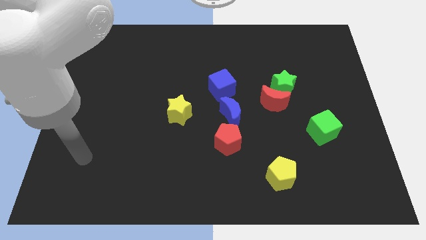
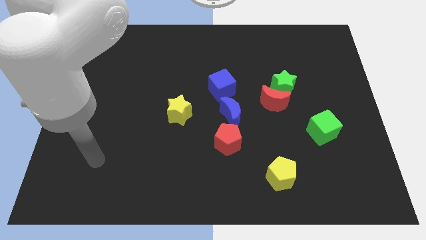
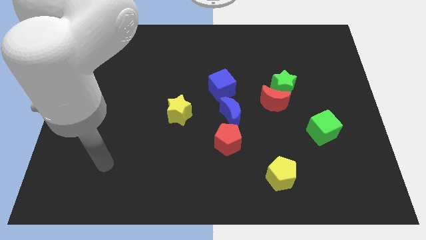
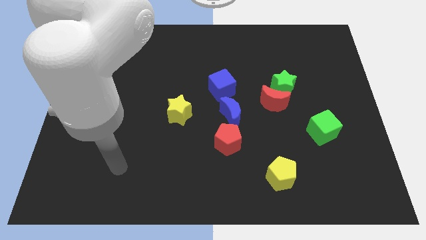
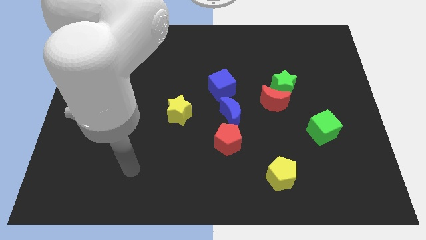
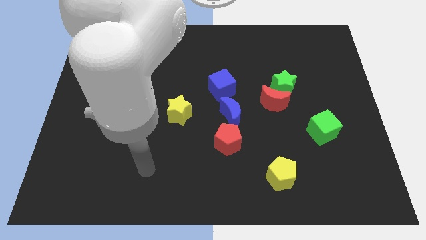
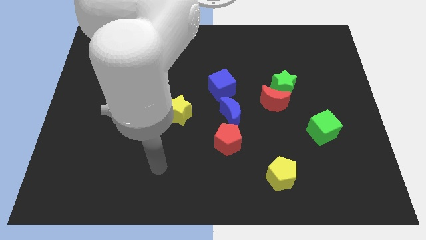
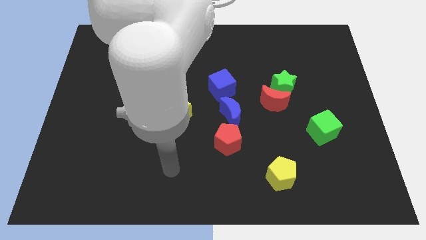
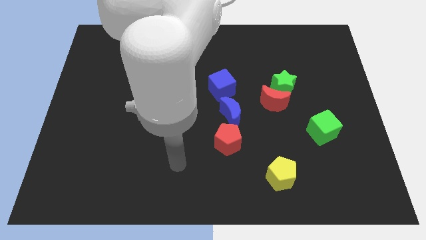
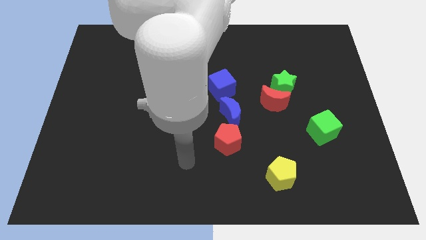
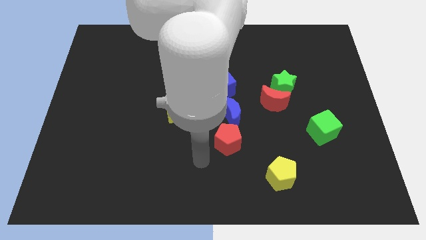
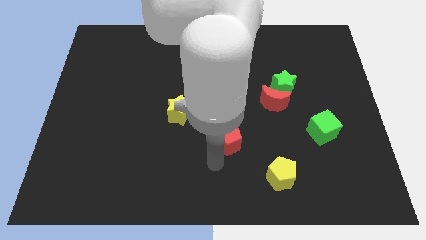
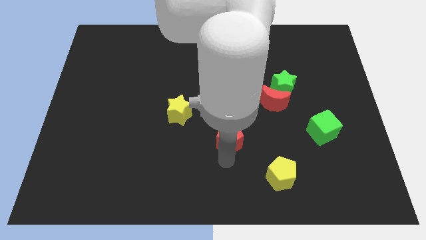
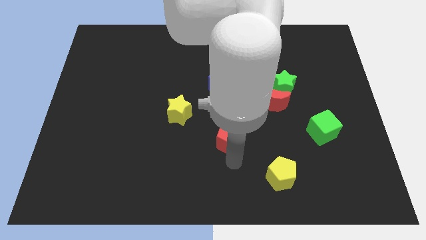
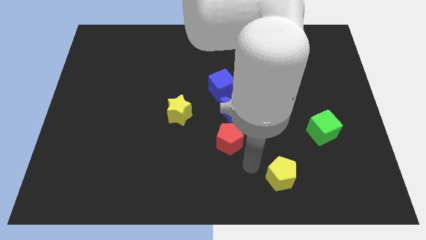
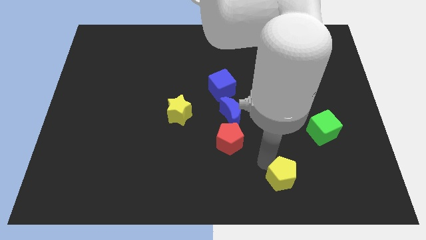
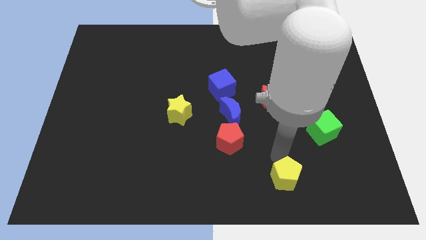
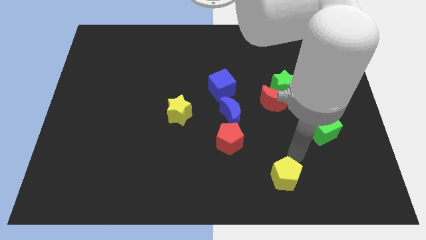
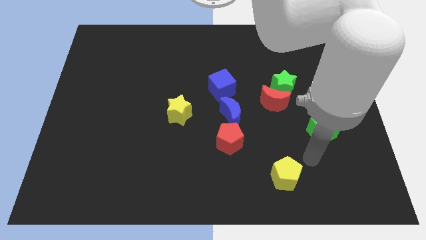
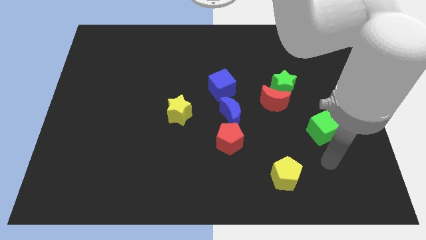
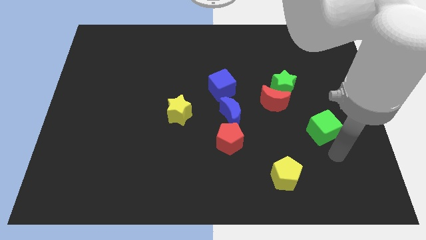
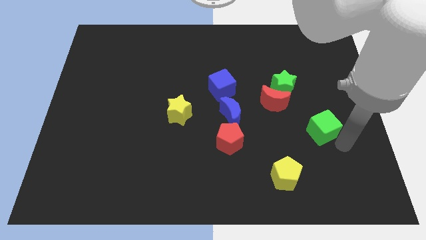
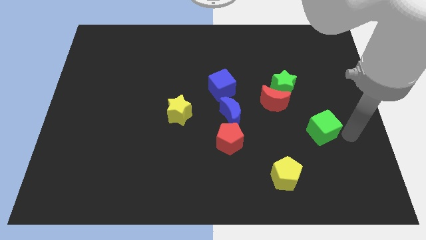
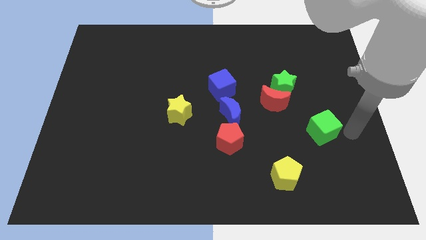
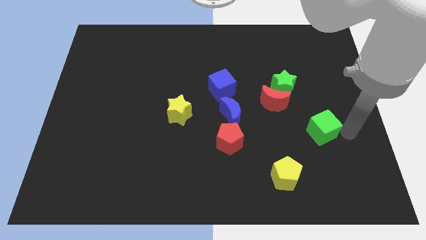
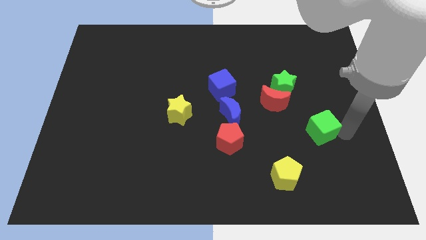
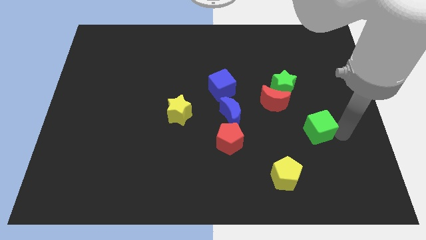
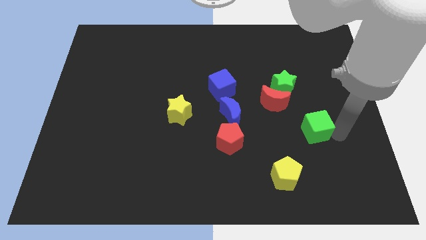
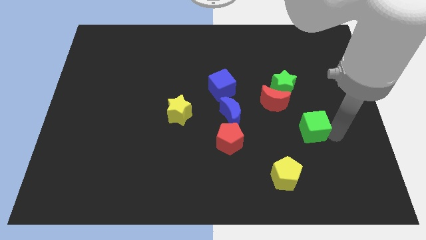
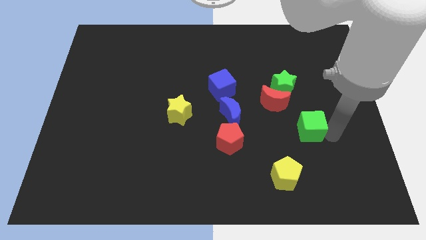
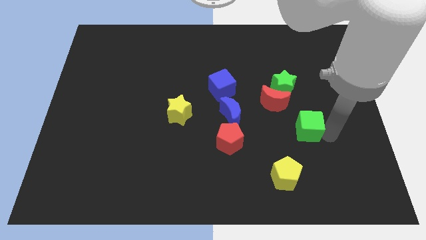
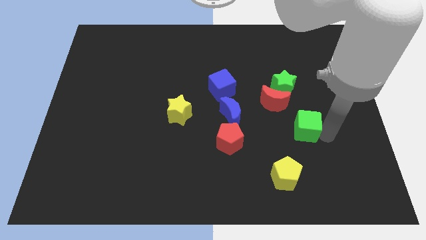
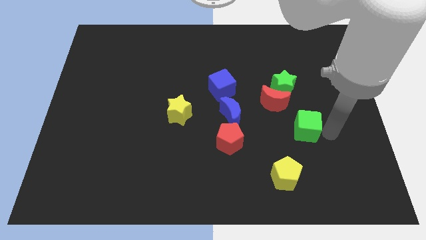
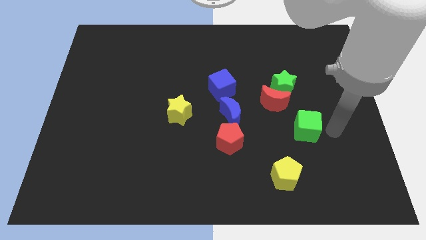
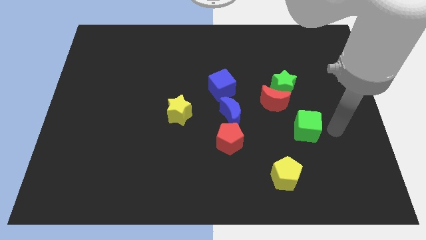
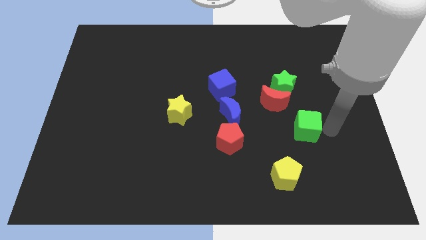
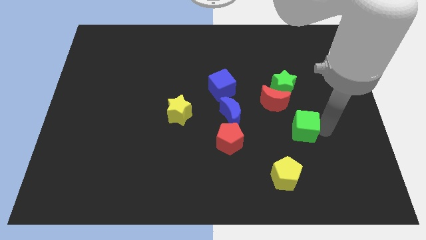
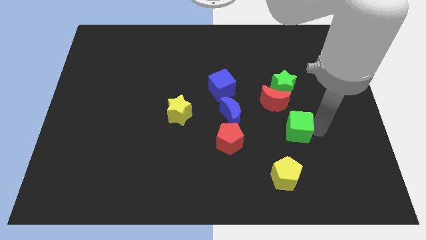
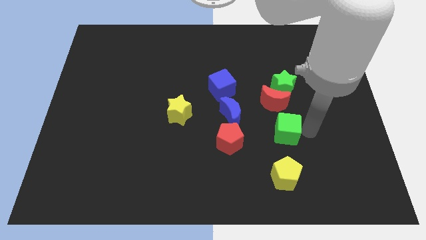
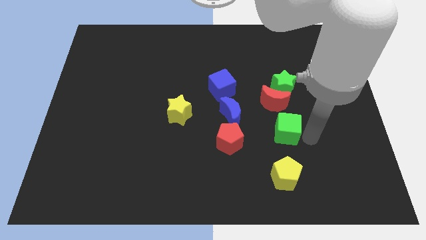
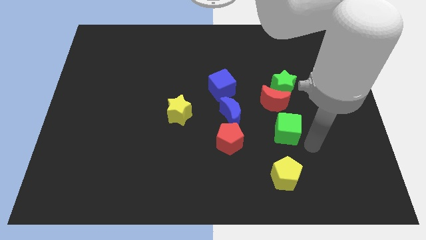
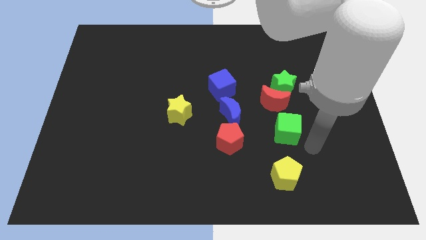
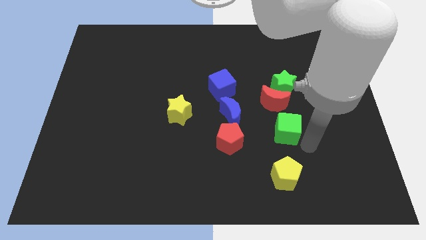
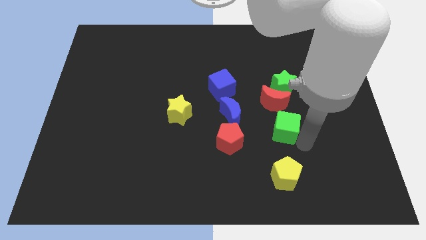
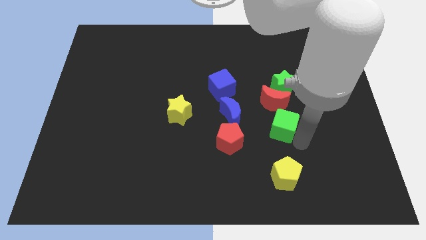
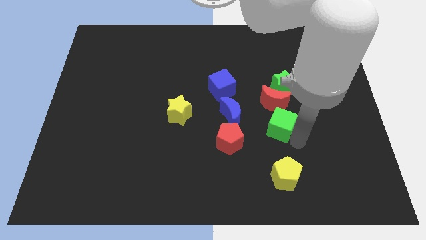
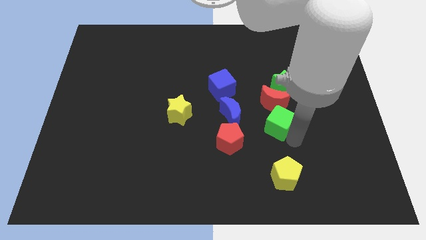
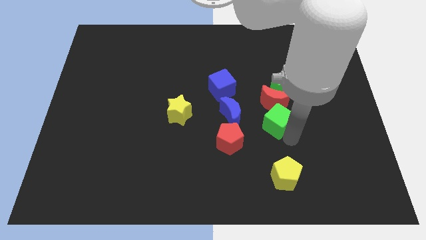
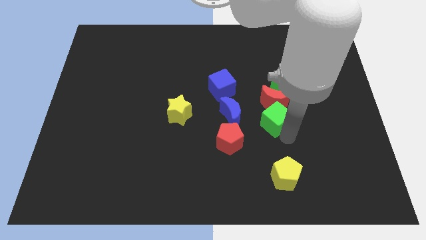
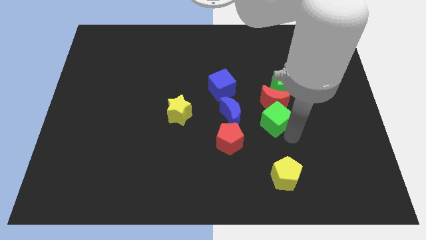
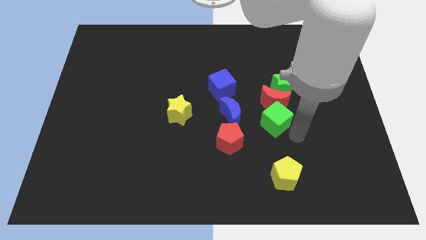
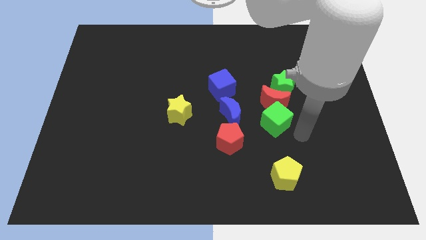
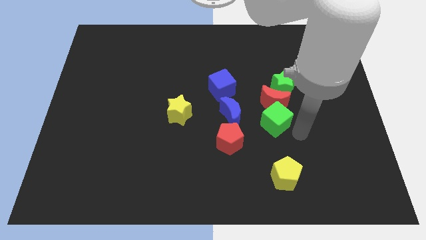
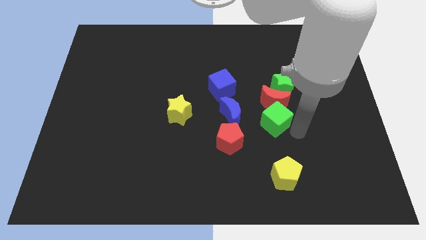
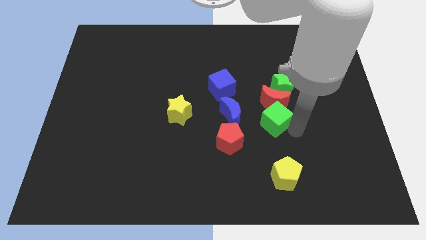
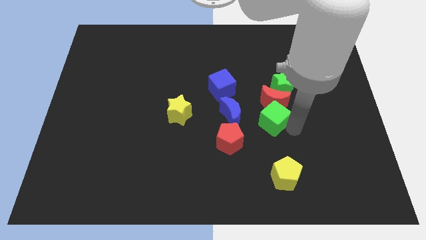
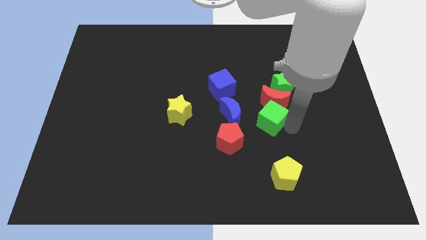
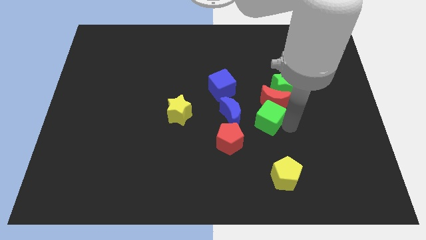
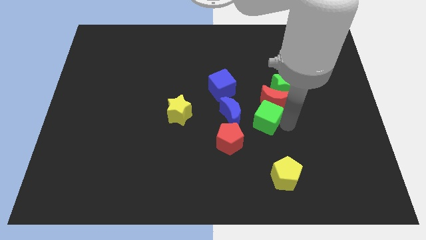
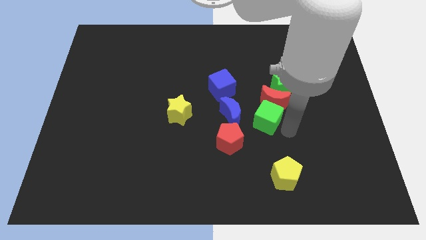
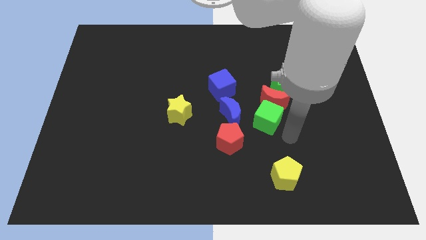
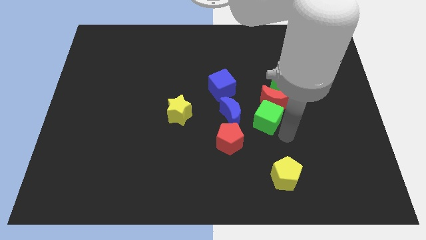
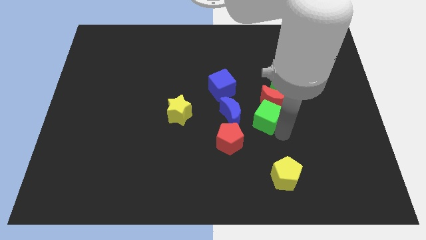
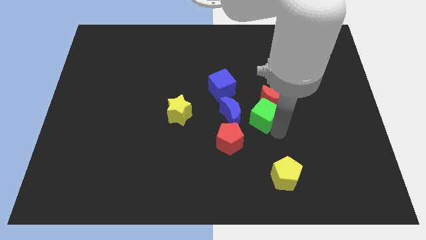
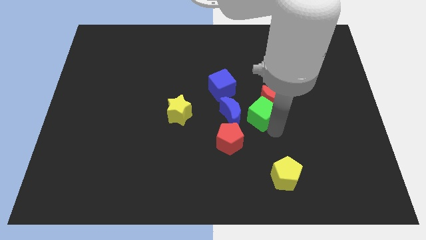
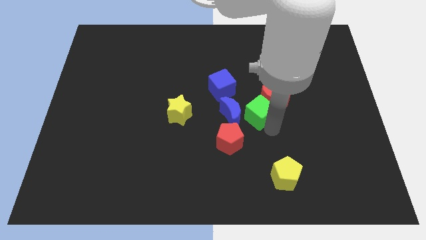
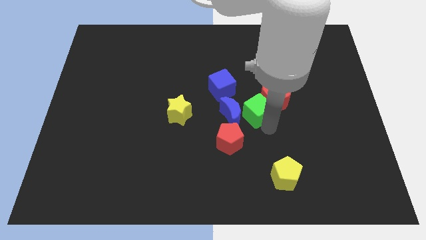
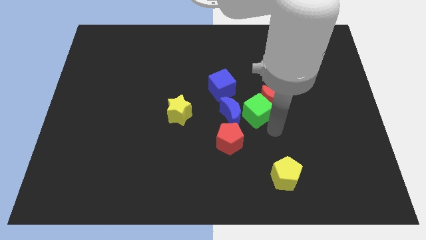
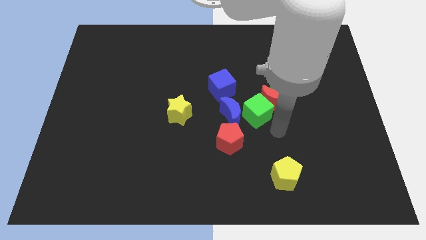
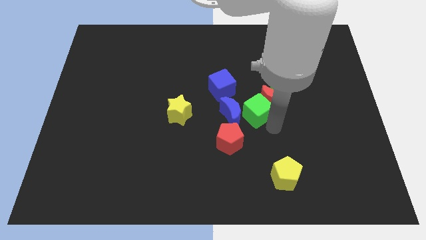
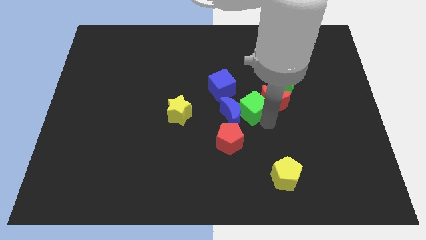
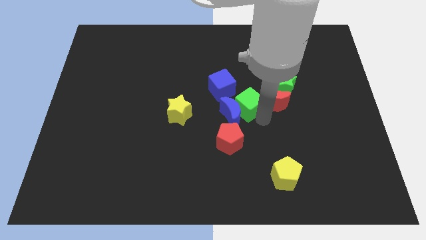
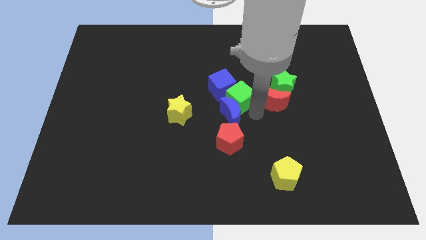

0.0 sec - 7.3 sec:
move the green cube close to the blue cube
